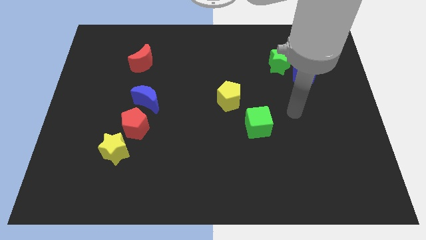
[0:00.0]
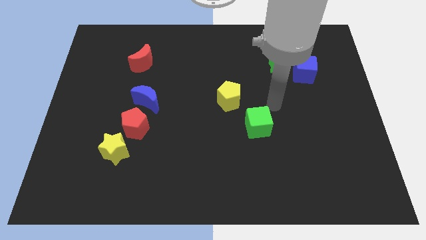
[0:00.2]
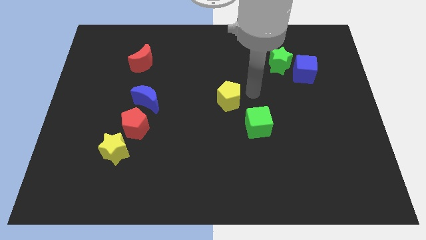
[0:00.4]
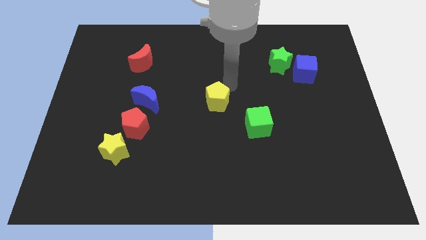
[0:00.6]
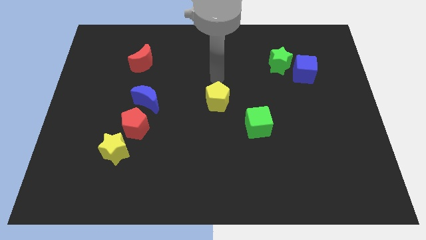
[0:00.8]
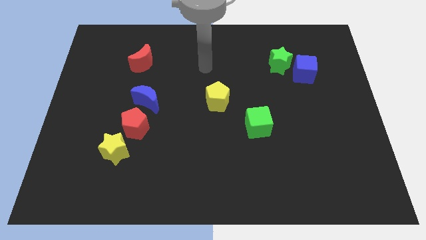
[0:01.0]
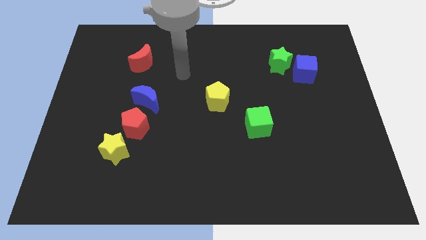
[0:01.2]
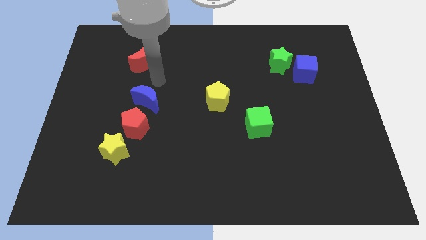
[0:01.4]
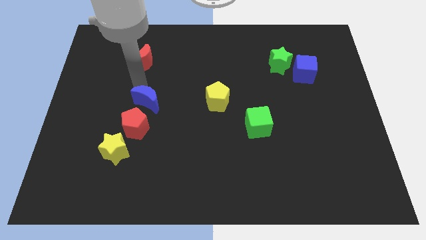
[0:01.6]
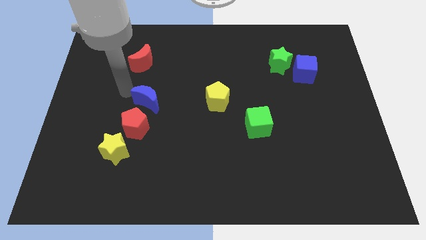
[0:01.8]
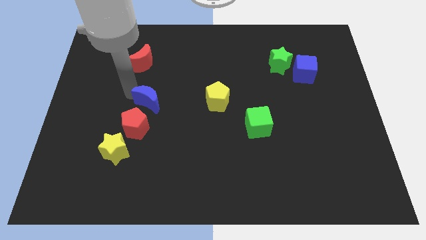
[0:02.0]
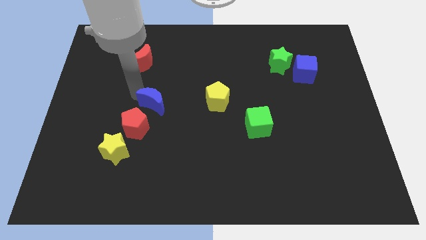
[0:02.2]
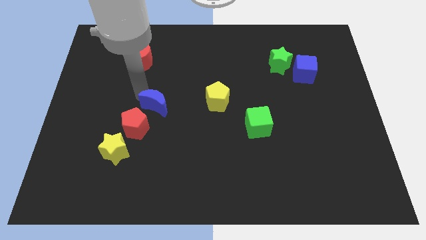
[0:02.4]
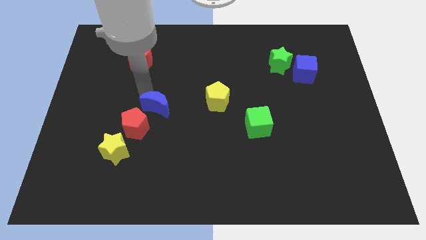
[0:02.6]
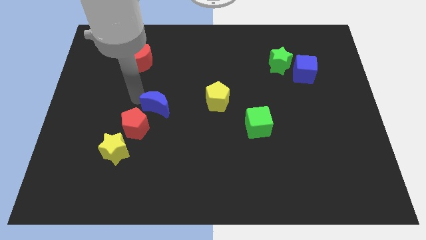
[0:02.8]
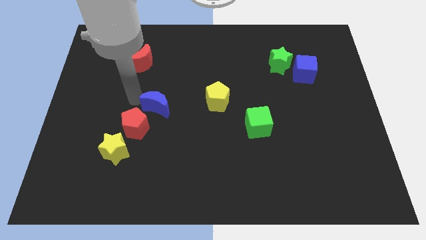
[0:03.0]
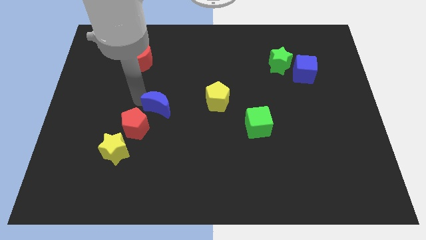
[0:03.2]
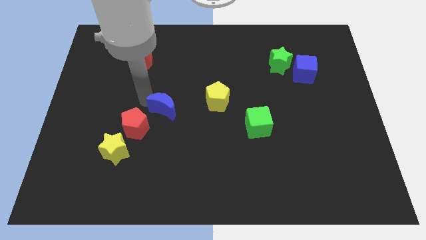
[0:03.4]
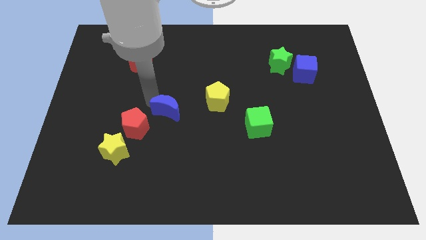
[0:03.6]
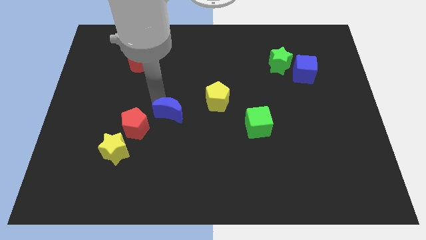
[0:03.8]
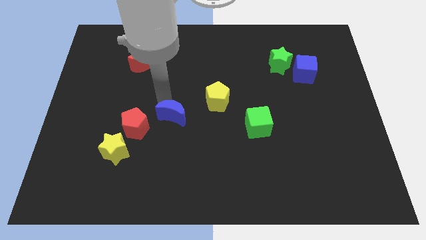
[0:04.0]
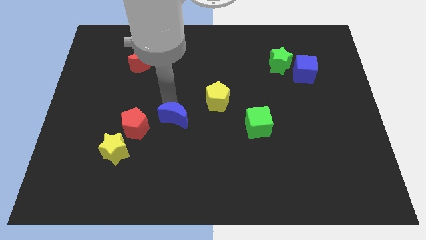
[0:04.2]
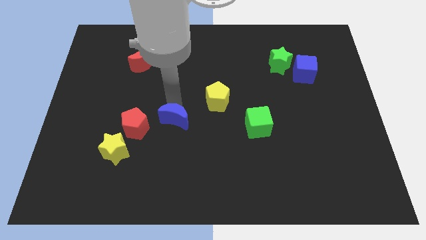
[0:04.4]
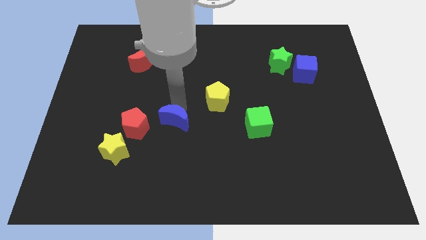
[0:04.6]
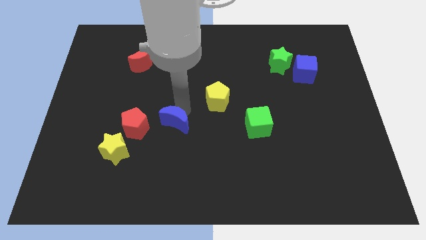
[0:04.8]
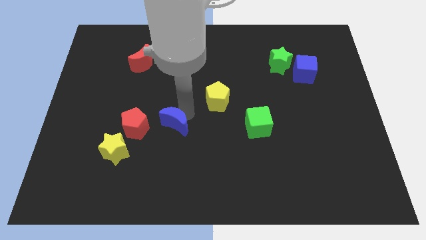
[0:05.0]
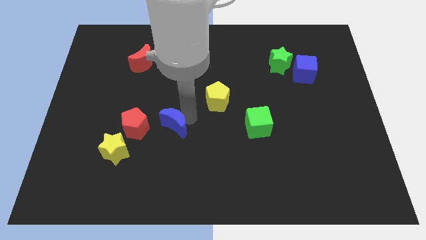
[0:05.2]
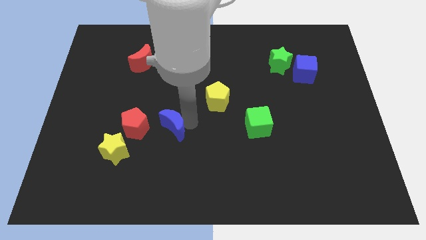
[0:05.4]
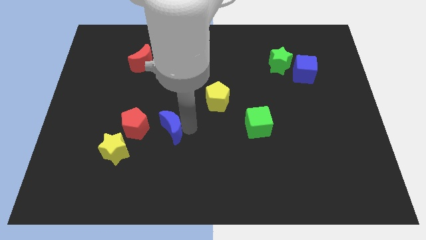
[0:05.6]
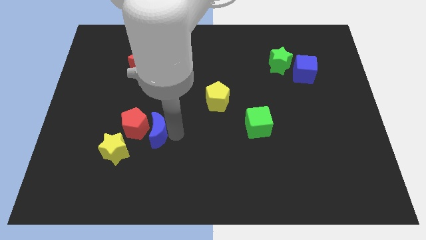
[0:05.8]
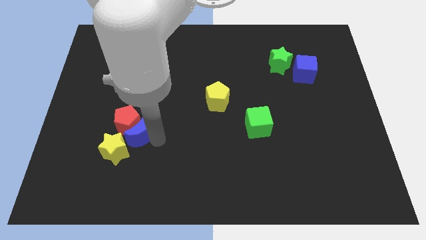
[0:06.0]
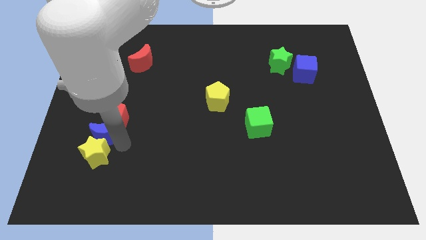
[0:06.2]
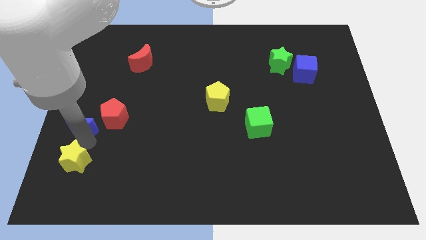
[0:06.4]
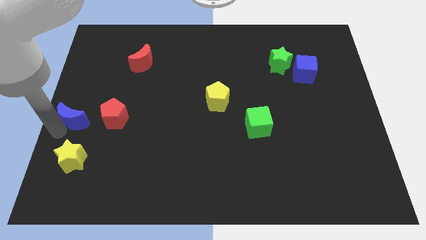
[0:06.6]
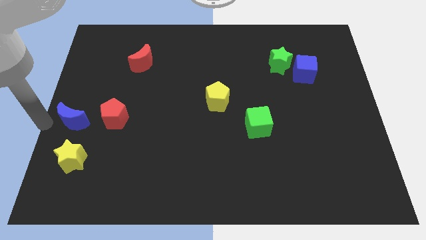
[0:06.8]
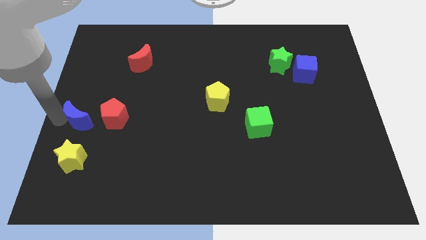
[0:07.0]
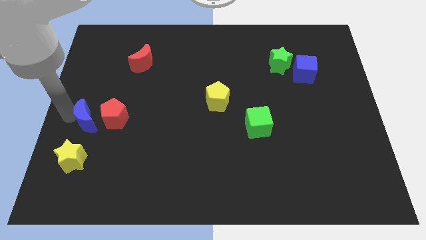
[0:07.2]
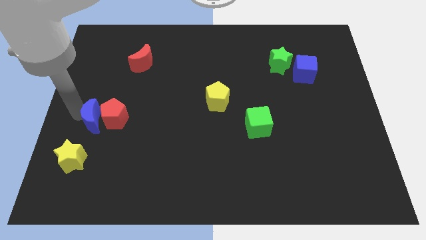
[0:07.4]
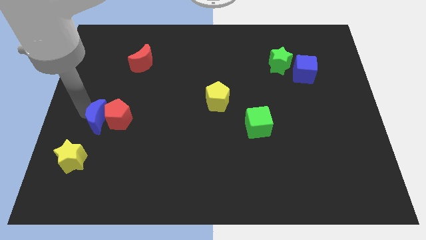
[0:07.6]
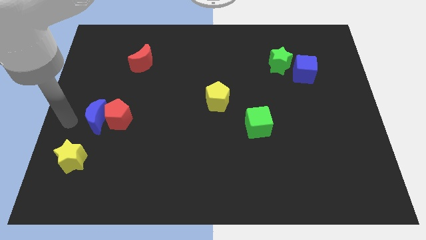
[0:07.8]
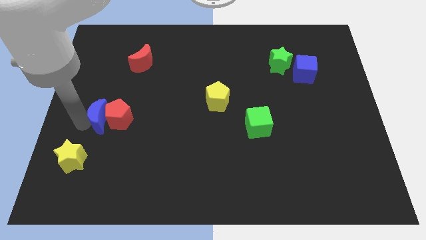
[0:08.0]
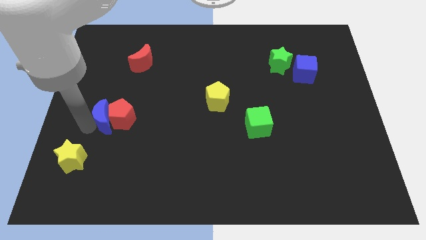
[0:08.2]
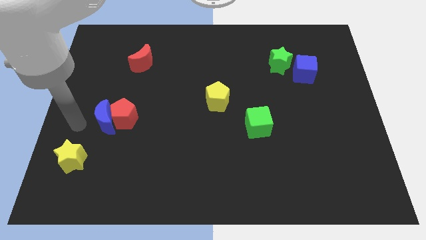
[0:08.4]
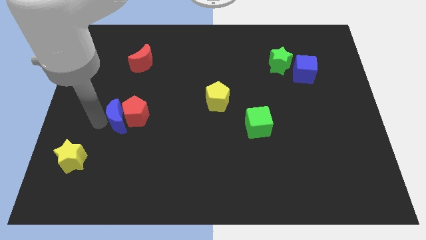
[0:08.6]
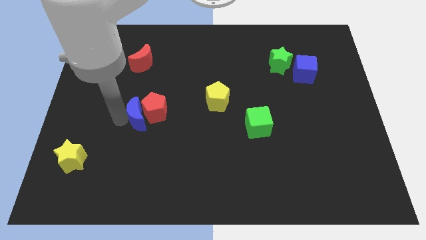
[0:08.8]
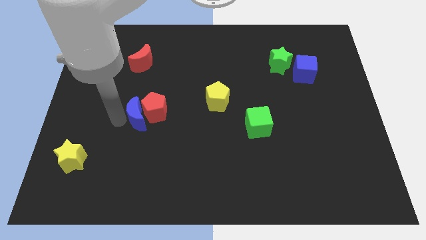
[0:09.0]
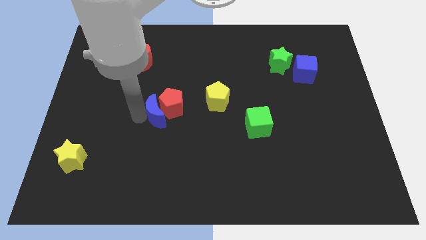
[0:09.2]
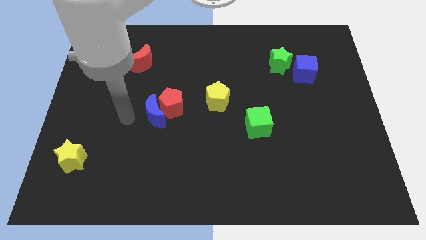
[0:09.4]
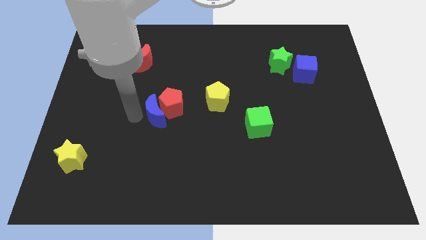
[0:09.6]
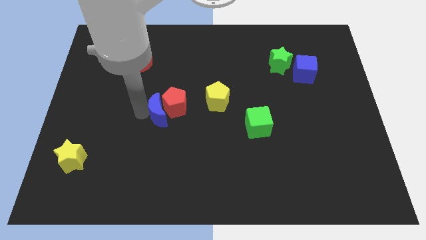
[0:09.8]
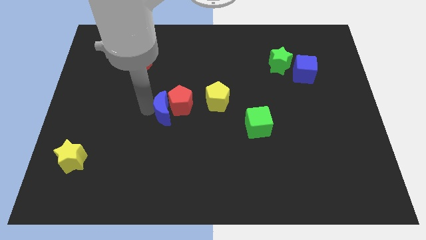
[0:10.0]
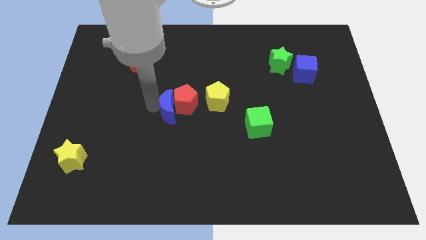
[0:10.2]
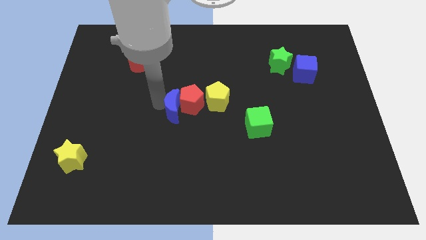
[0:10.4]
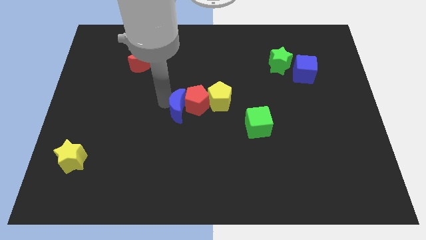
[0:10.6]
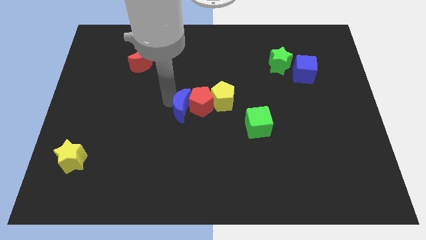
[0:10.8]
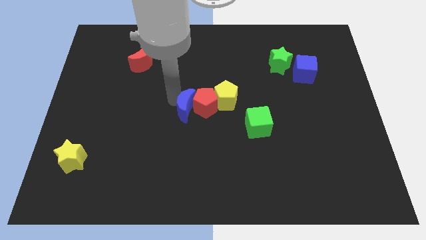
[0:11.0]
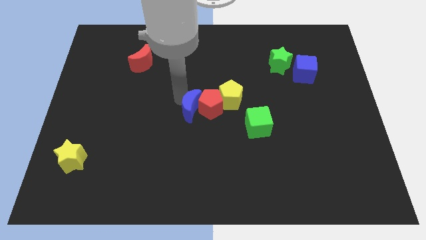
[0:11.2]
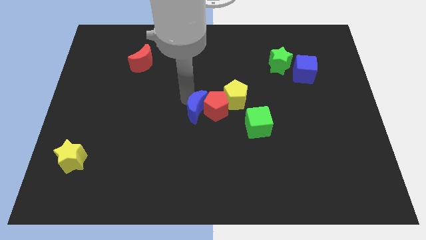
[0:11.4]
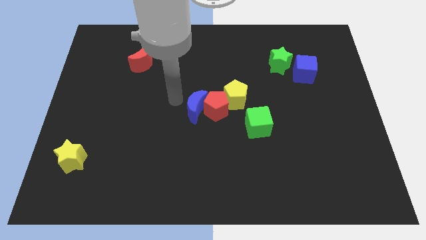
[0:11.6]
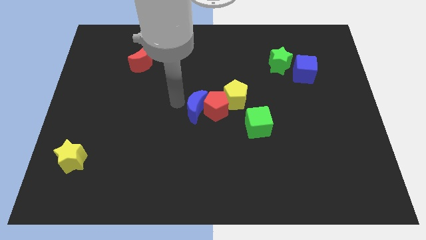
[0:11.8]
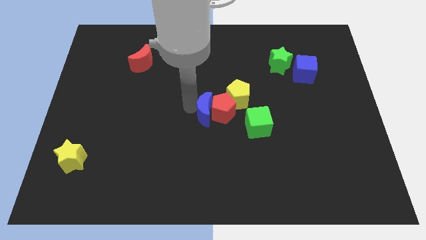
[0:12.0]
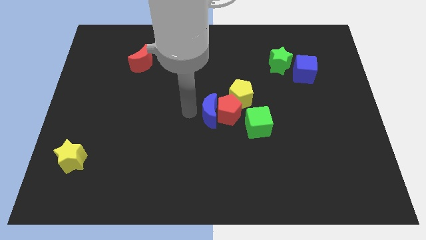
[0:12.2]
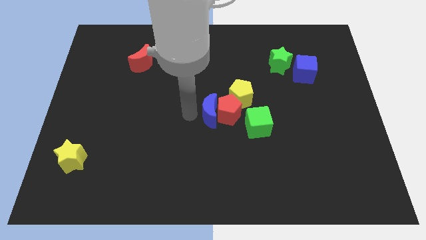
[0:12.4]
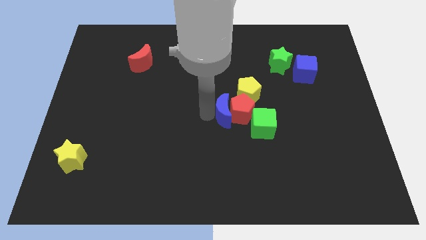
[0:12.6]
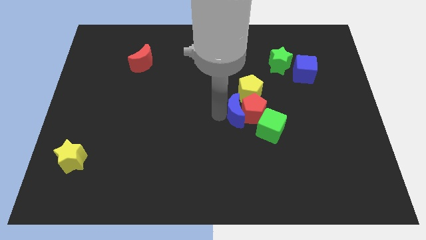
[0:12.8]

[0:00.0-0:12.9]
move the blue moon to the right

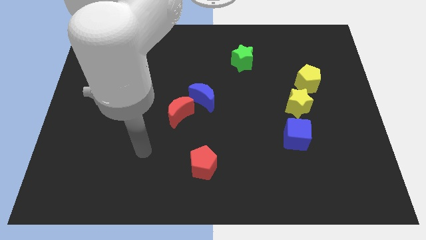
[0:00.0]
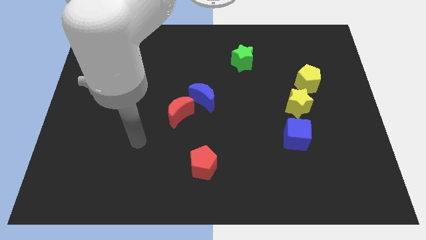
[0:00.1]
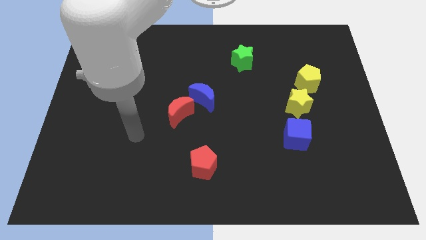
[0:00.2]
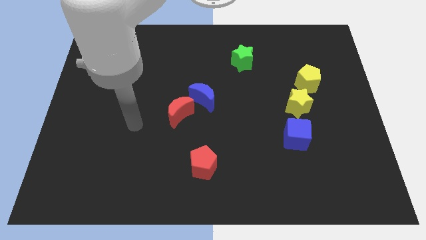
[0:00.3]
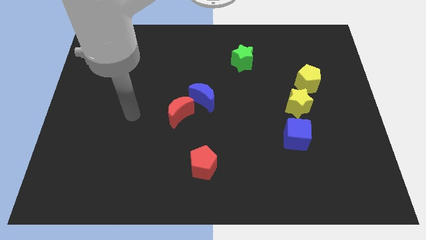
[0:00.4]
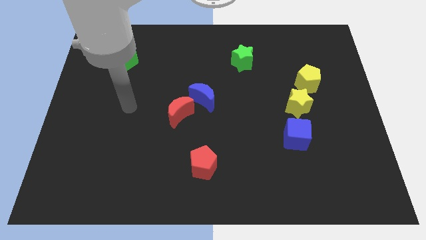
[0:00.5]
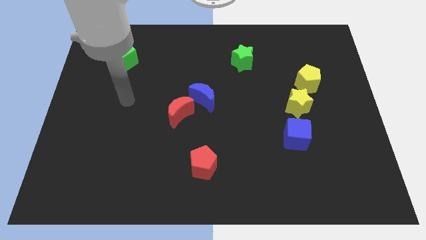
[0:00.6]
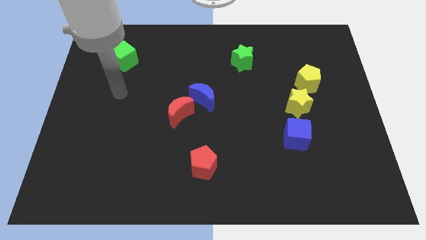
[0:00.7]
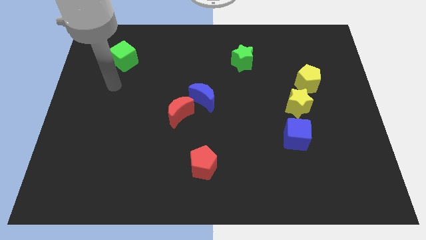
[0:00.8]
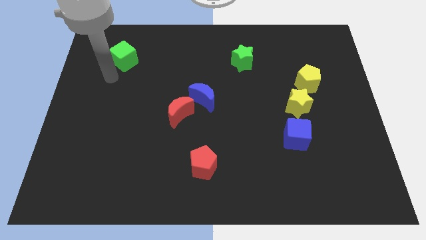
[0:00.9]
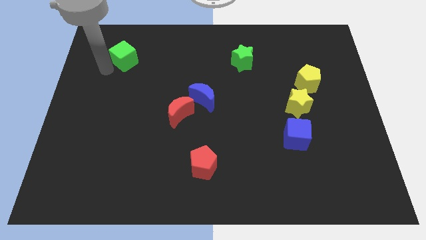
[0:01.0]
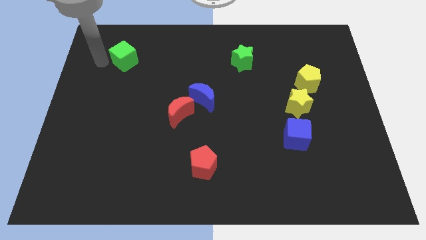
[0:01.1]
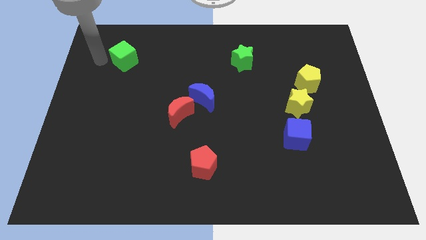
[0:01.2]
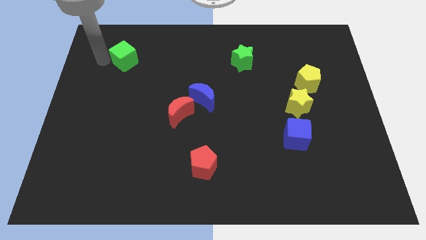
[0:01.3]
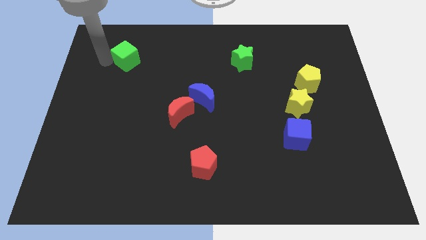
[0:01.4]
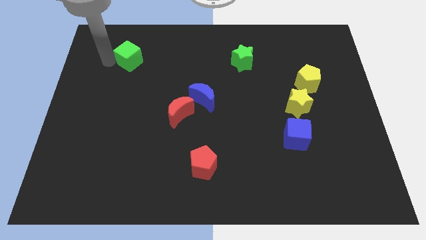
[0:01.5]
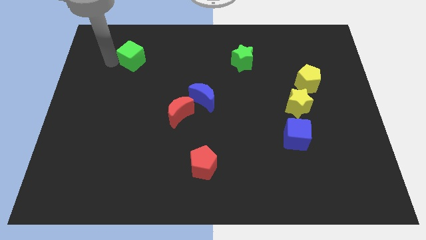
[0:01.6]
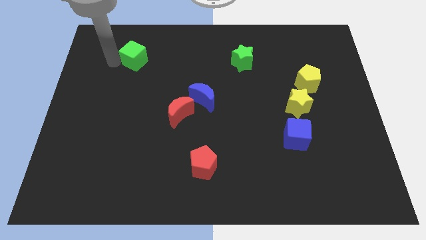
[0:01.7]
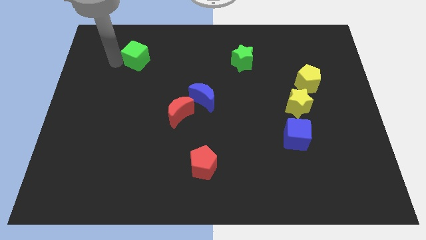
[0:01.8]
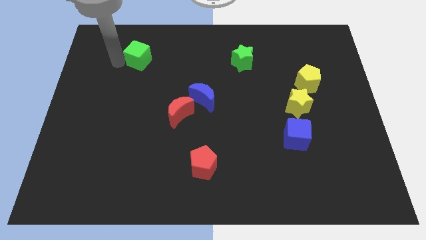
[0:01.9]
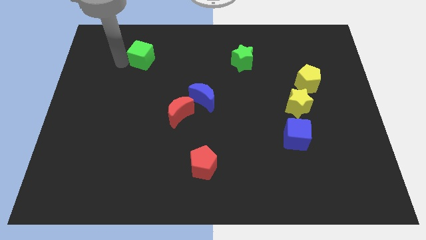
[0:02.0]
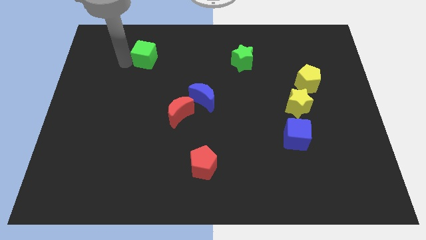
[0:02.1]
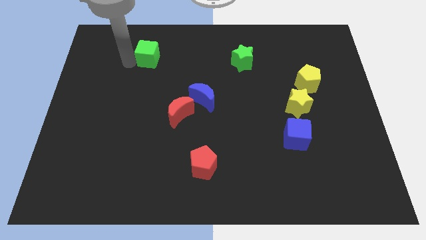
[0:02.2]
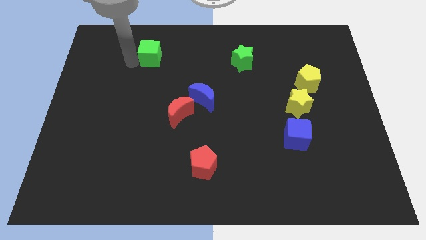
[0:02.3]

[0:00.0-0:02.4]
slide the green cube to the right a little
